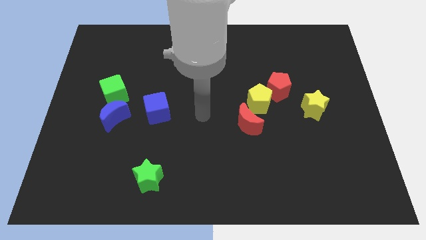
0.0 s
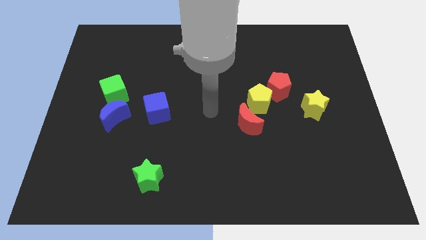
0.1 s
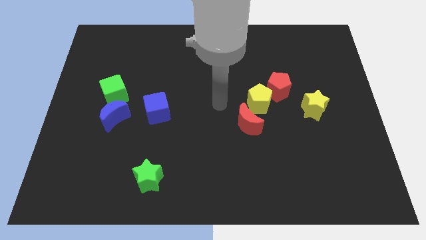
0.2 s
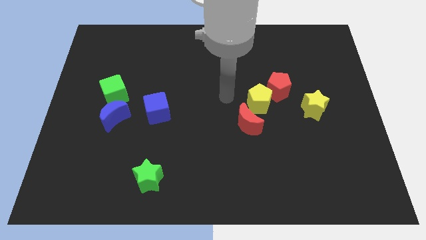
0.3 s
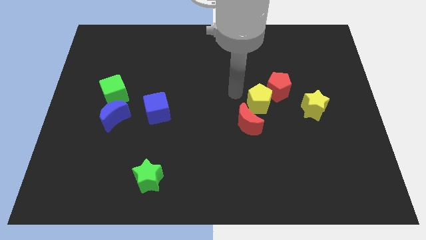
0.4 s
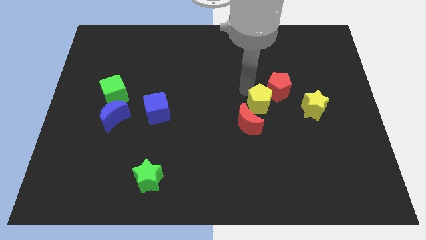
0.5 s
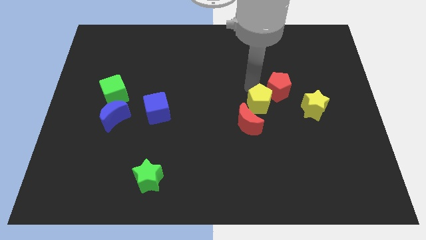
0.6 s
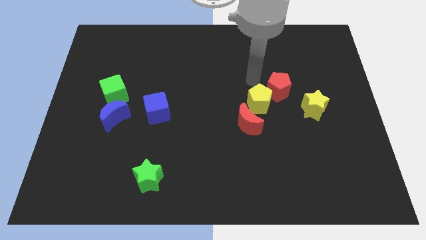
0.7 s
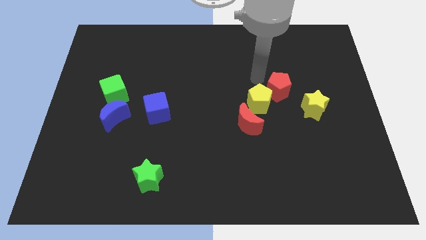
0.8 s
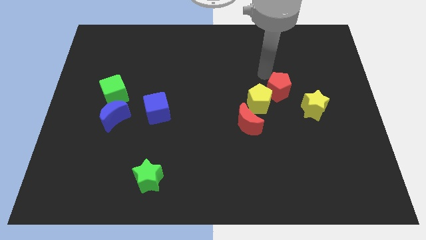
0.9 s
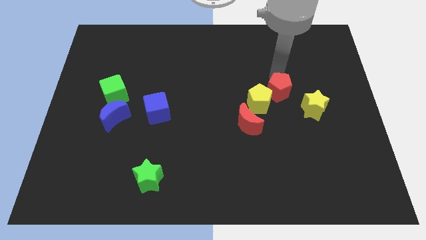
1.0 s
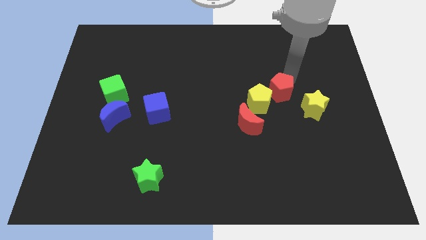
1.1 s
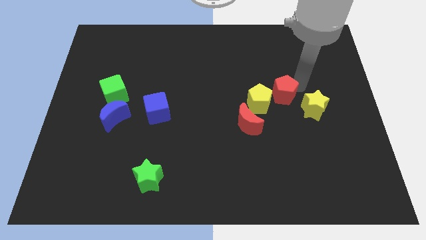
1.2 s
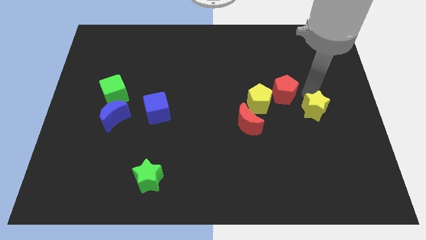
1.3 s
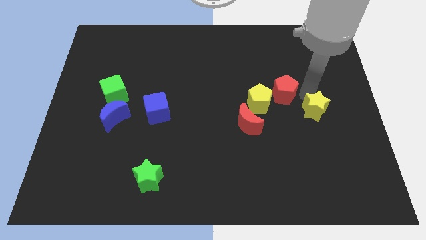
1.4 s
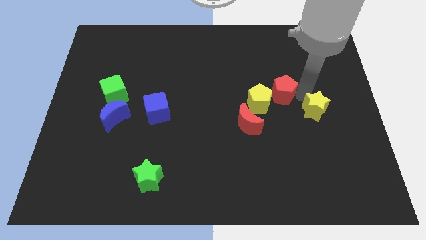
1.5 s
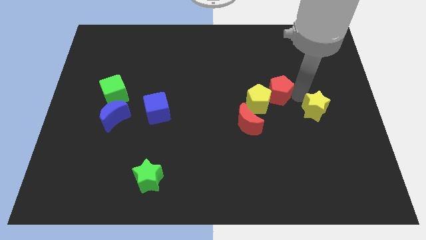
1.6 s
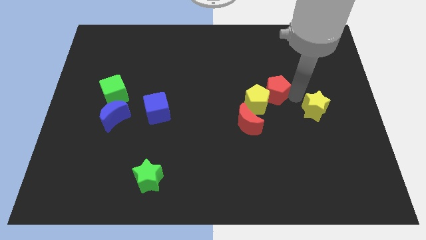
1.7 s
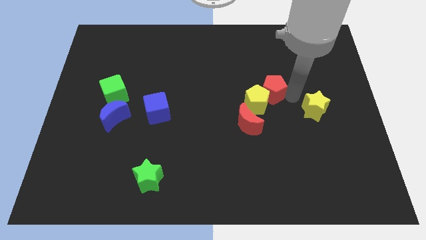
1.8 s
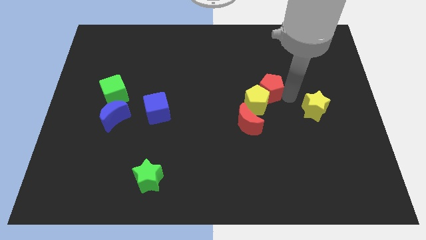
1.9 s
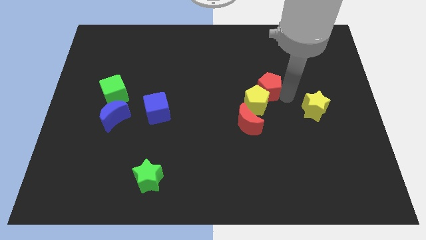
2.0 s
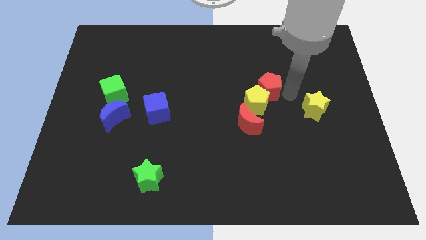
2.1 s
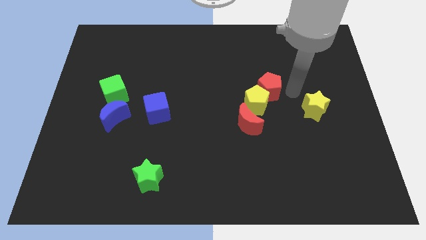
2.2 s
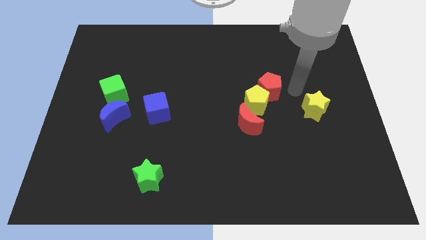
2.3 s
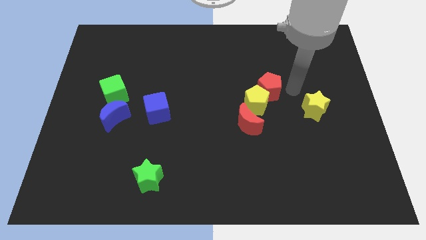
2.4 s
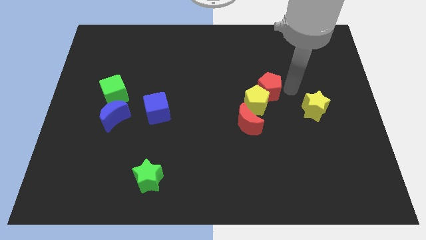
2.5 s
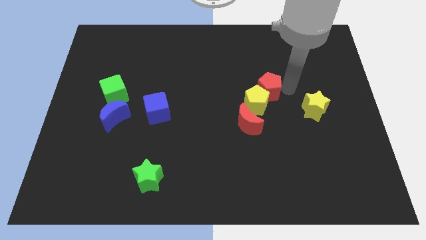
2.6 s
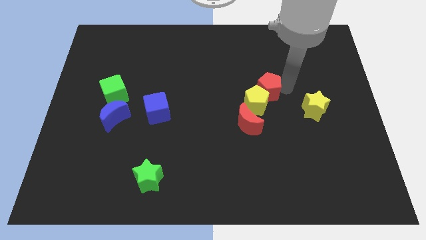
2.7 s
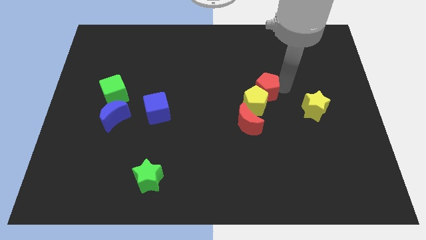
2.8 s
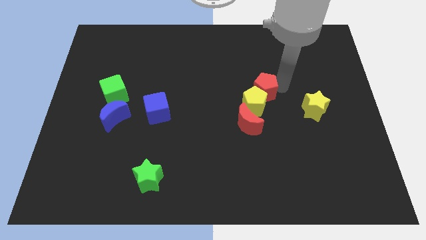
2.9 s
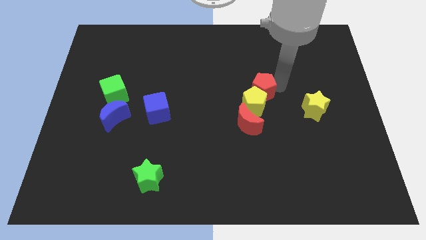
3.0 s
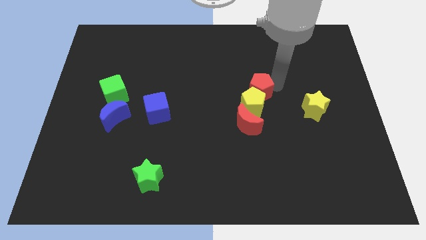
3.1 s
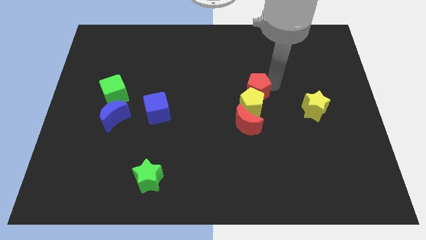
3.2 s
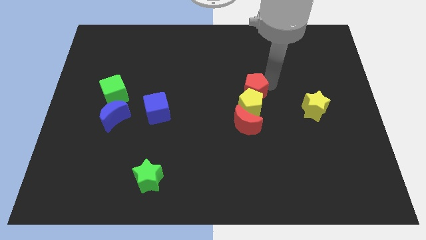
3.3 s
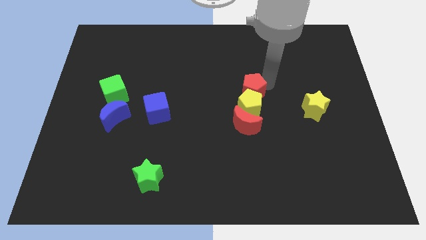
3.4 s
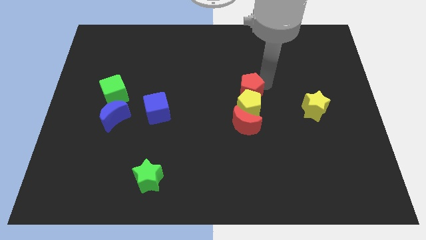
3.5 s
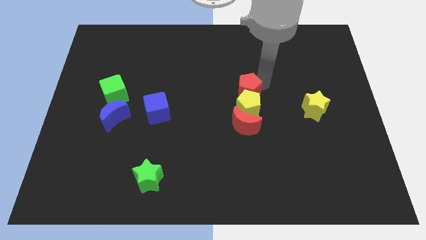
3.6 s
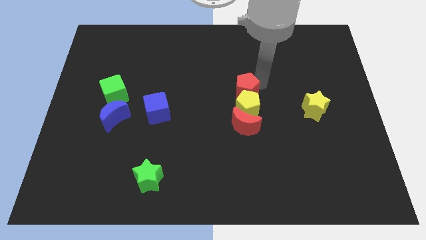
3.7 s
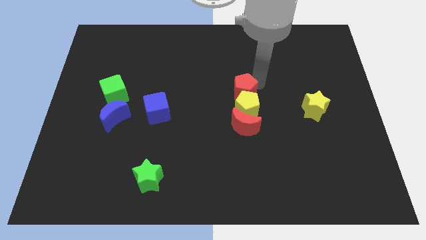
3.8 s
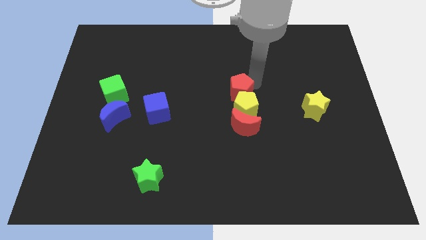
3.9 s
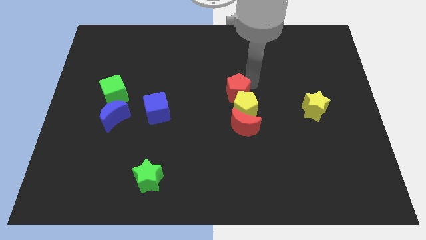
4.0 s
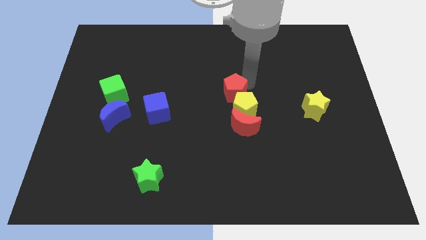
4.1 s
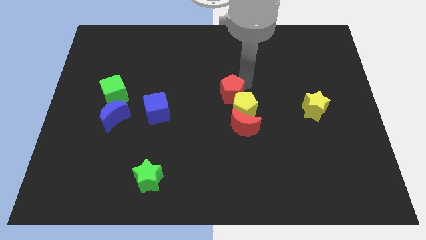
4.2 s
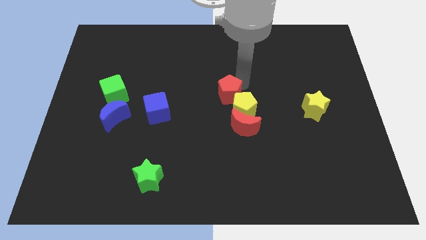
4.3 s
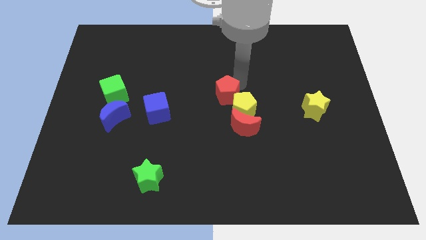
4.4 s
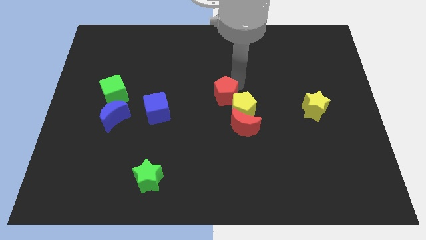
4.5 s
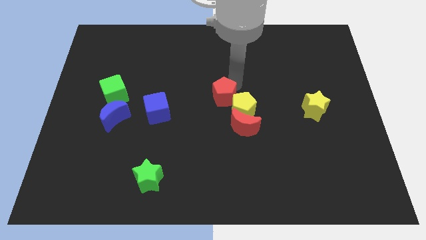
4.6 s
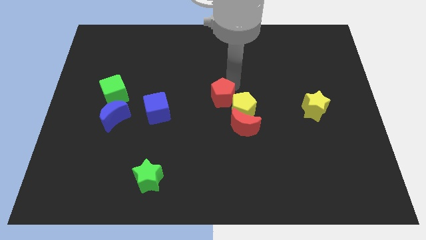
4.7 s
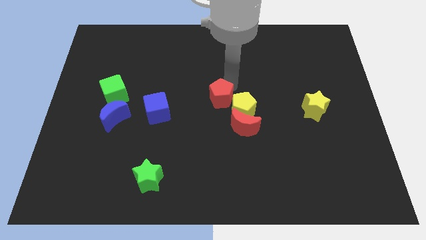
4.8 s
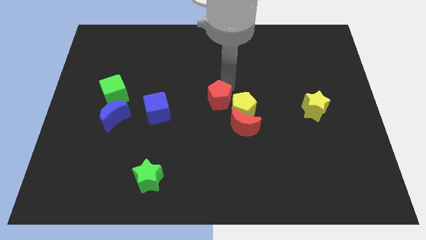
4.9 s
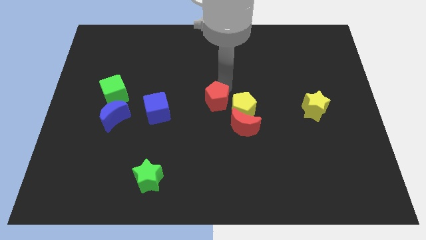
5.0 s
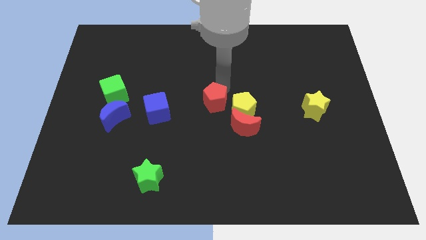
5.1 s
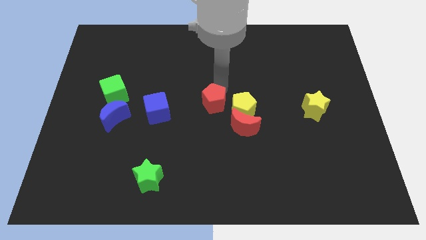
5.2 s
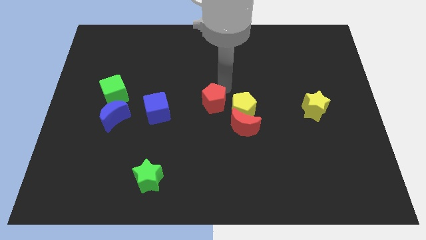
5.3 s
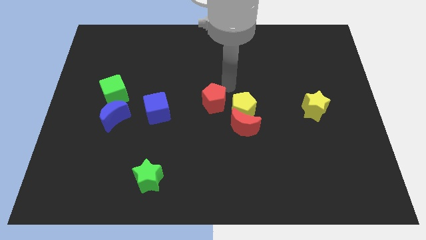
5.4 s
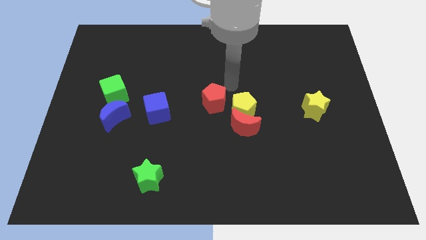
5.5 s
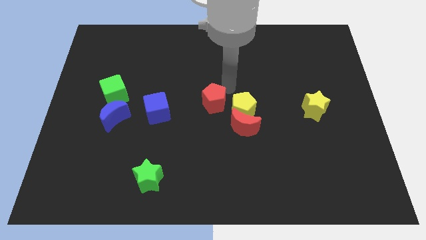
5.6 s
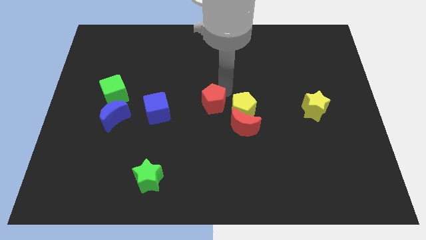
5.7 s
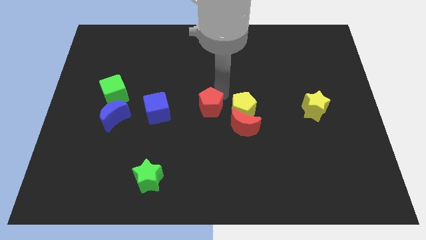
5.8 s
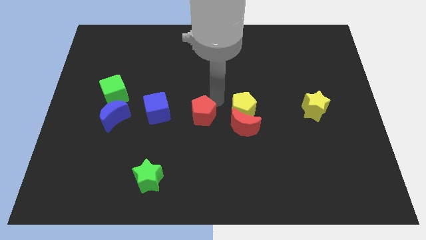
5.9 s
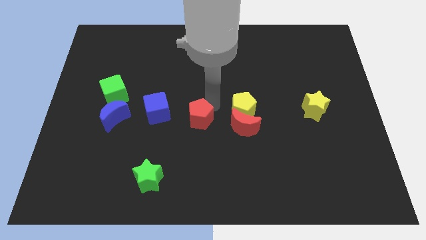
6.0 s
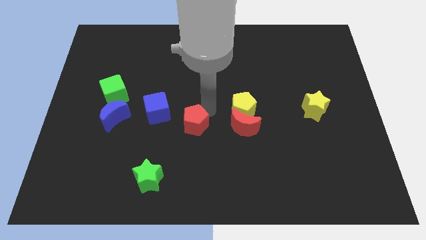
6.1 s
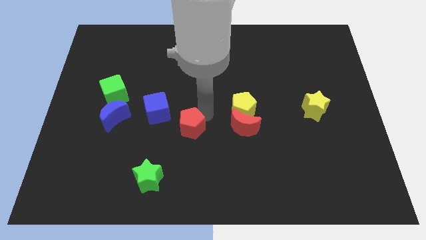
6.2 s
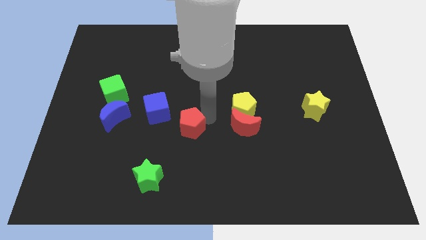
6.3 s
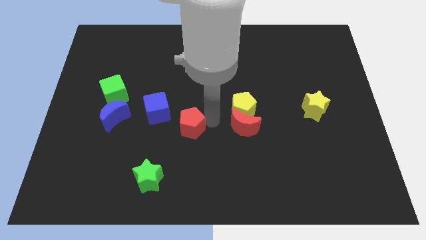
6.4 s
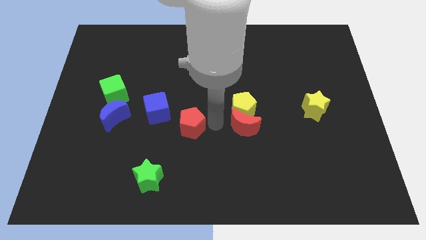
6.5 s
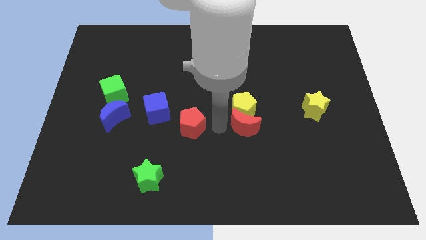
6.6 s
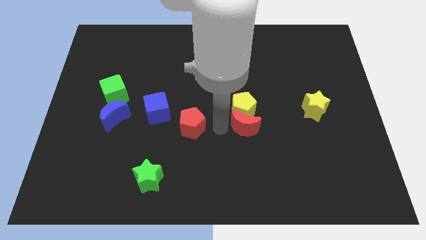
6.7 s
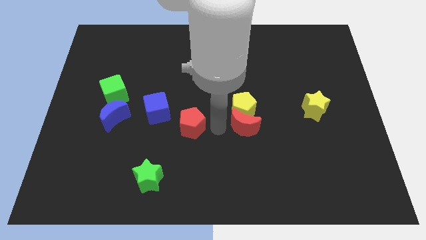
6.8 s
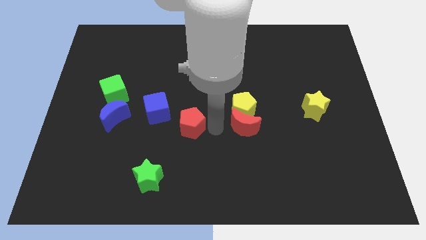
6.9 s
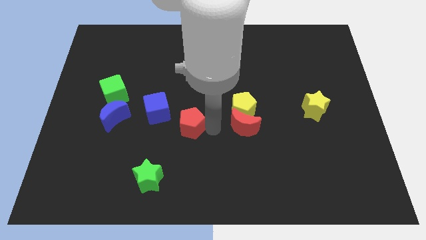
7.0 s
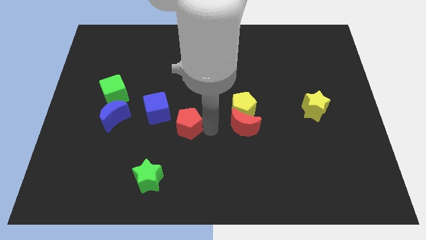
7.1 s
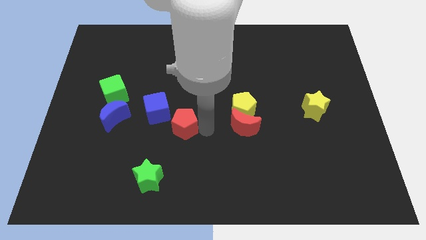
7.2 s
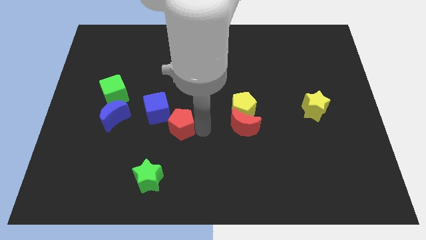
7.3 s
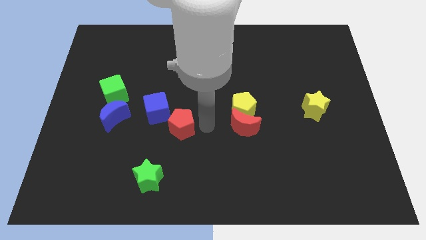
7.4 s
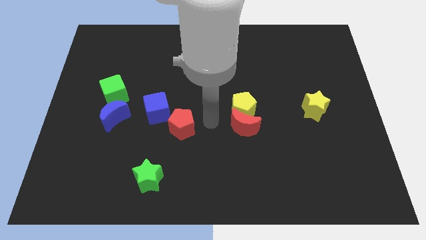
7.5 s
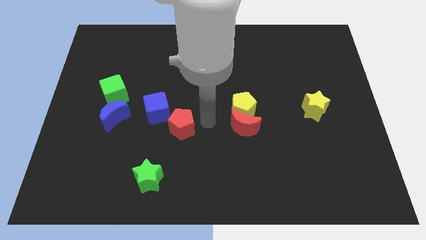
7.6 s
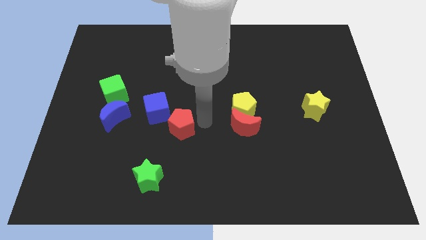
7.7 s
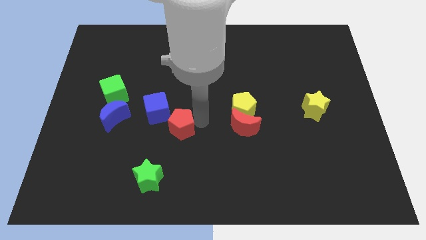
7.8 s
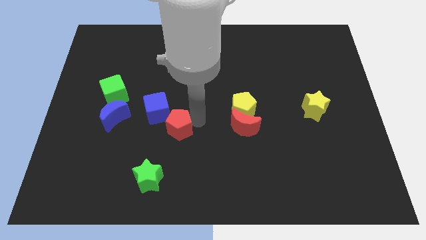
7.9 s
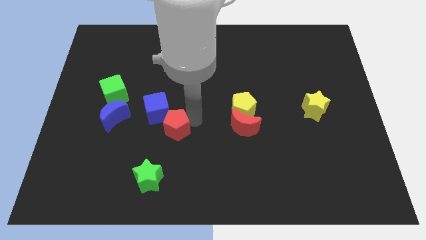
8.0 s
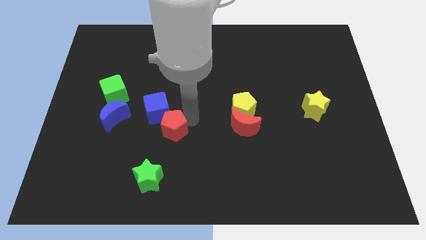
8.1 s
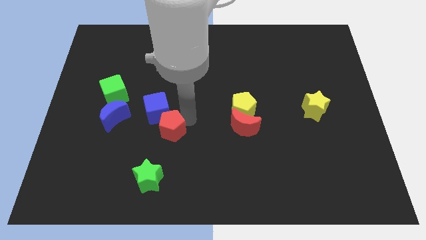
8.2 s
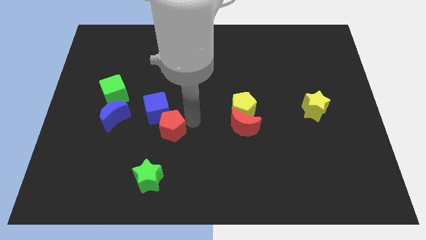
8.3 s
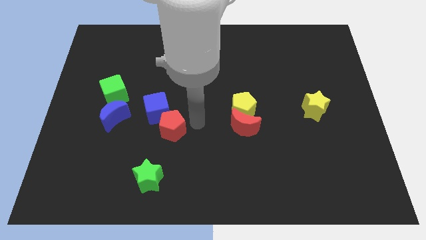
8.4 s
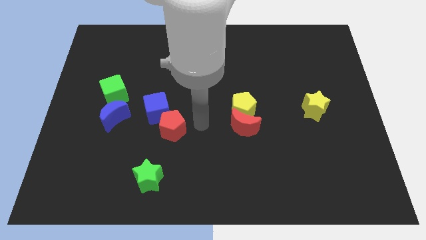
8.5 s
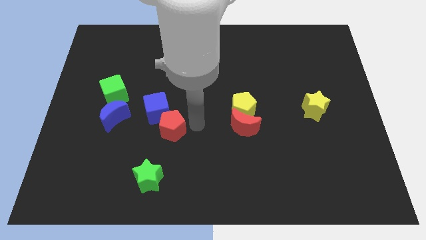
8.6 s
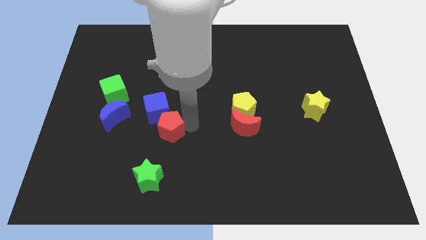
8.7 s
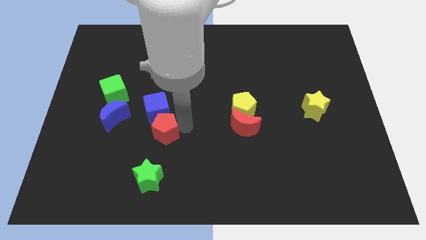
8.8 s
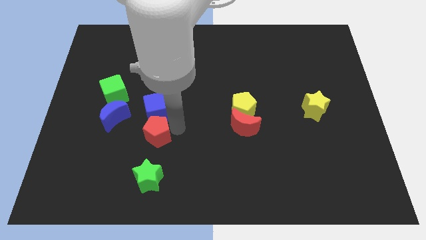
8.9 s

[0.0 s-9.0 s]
push the red pentagon to the bottom right of the blue moon
